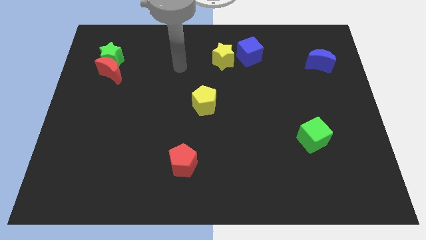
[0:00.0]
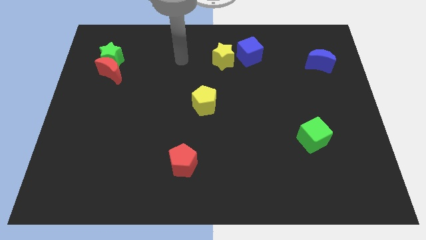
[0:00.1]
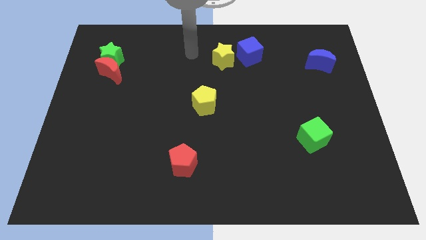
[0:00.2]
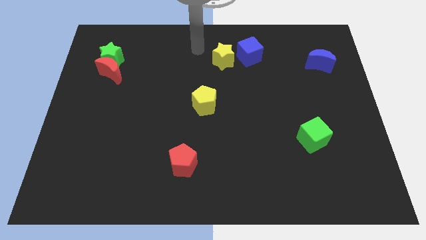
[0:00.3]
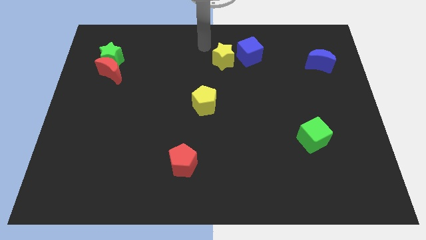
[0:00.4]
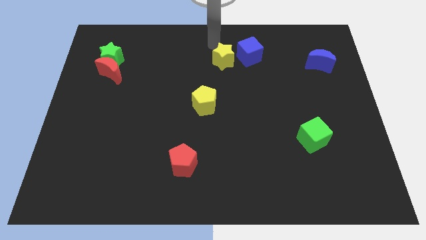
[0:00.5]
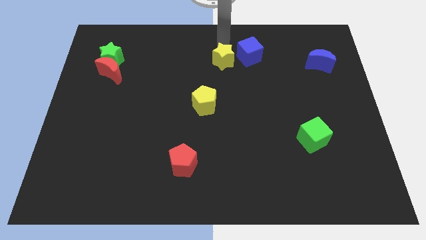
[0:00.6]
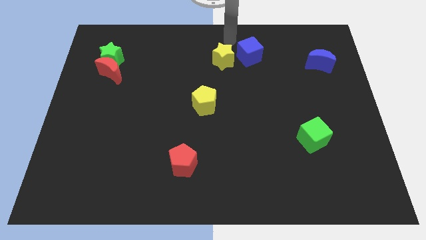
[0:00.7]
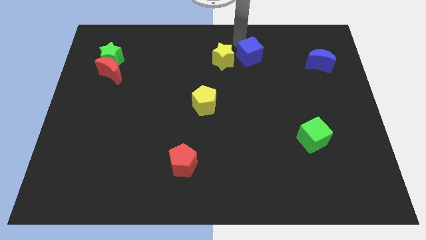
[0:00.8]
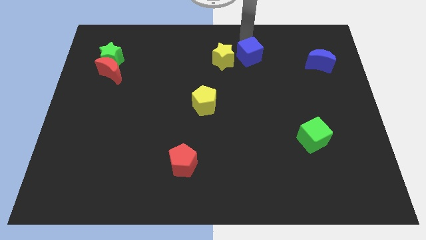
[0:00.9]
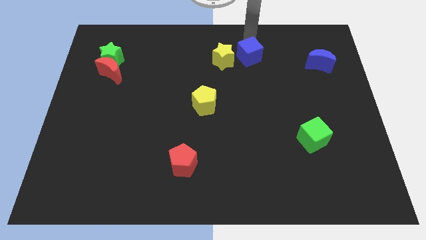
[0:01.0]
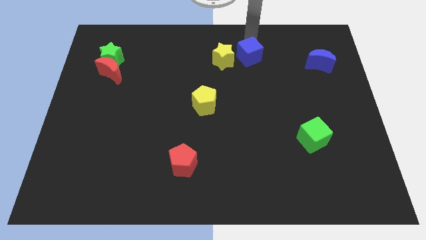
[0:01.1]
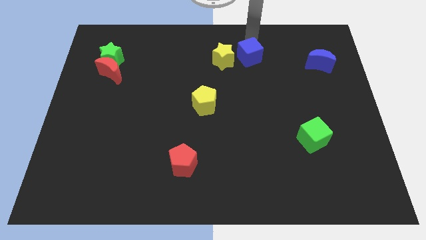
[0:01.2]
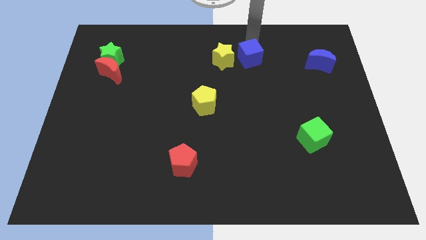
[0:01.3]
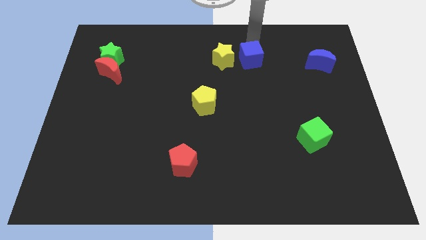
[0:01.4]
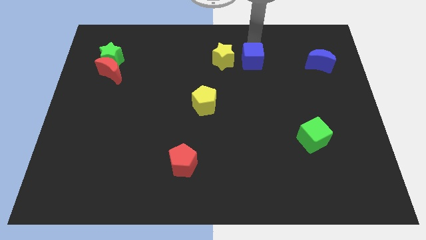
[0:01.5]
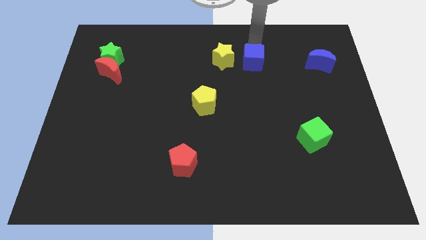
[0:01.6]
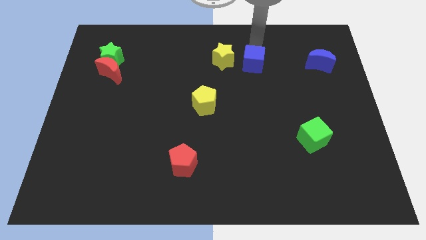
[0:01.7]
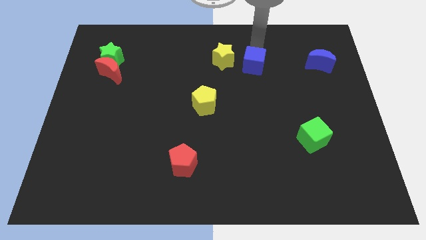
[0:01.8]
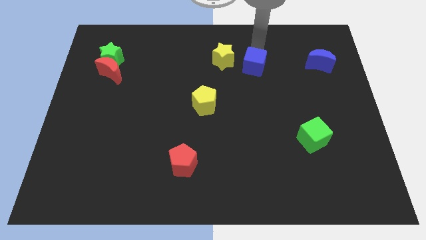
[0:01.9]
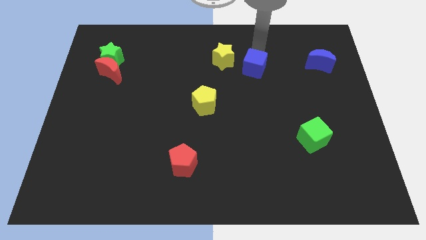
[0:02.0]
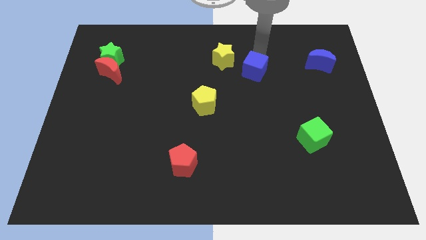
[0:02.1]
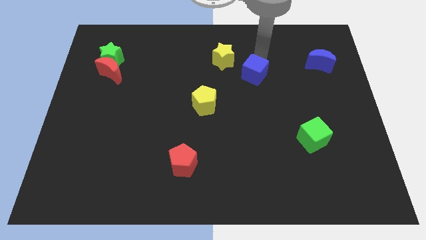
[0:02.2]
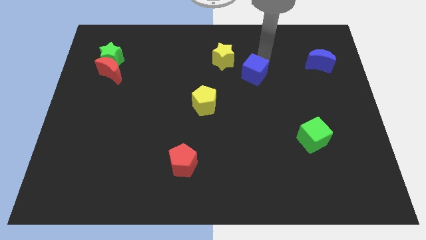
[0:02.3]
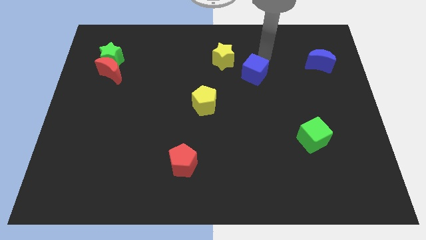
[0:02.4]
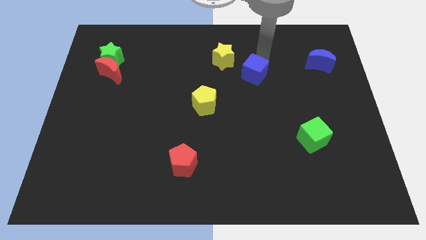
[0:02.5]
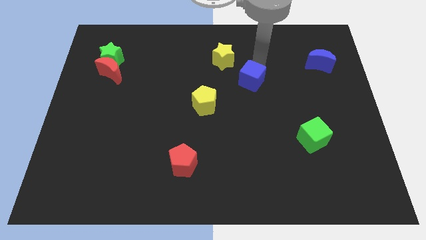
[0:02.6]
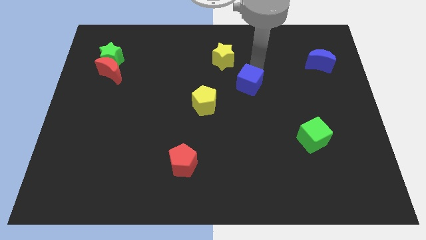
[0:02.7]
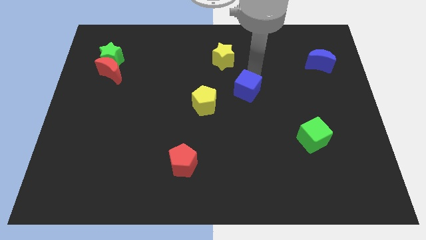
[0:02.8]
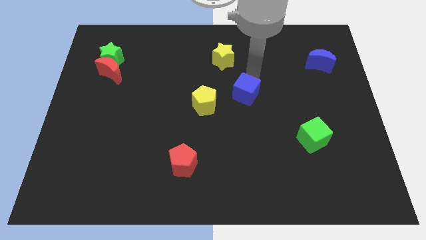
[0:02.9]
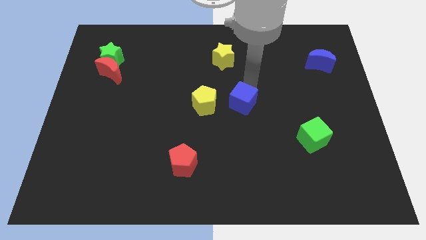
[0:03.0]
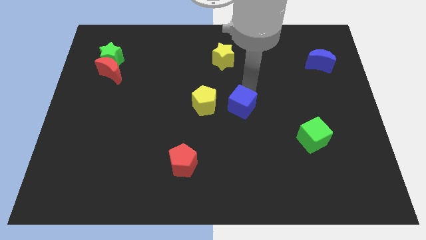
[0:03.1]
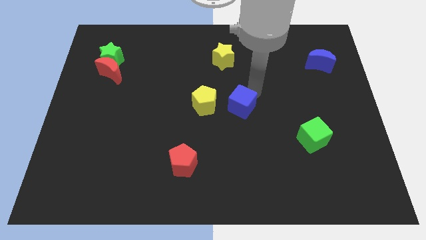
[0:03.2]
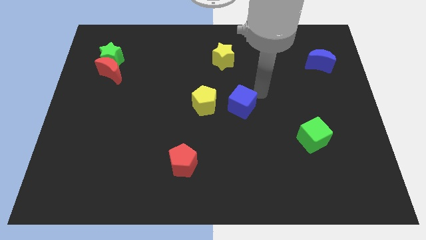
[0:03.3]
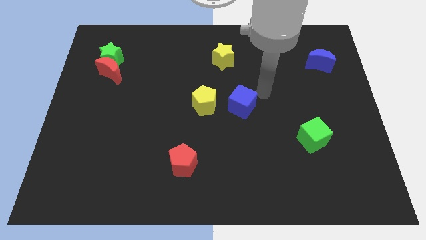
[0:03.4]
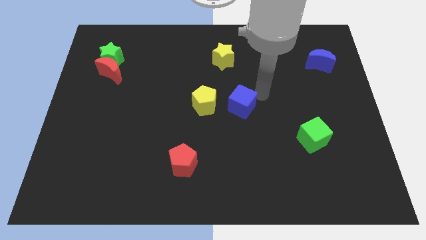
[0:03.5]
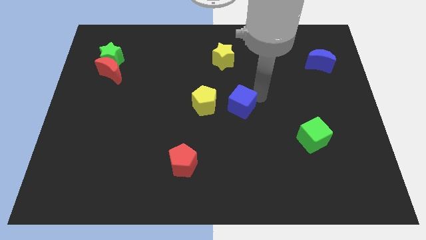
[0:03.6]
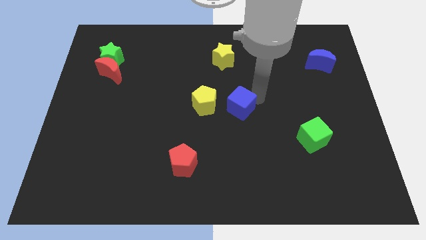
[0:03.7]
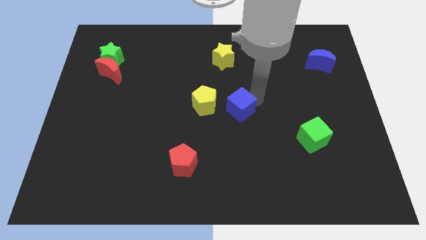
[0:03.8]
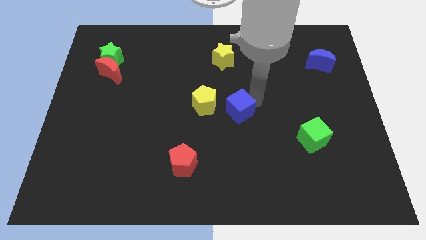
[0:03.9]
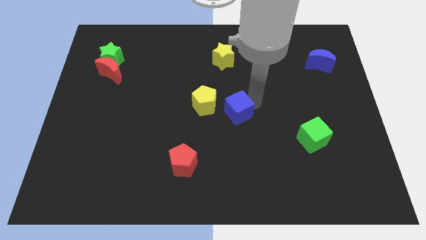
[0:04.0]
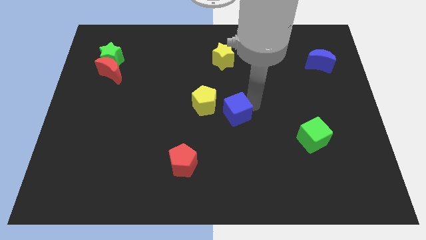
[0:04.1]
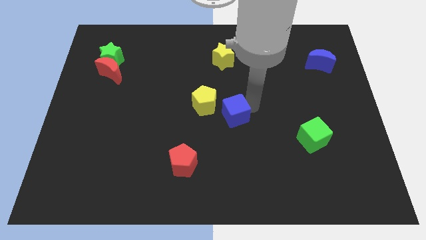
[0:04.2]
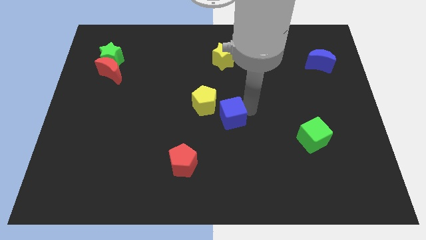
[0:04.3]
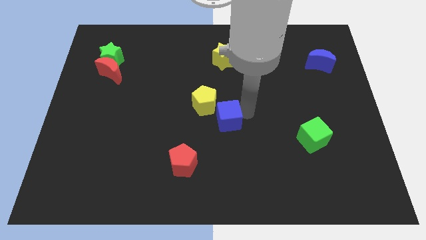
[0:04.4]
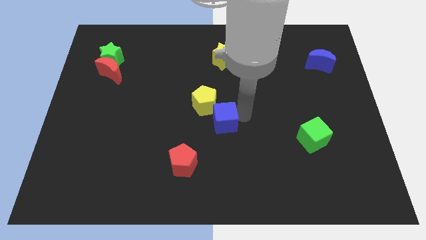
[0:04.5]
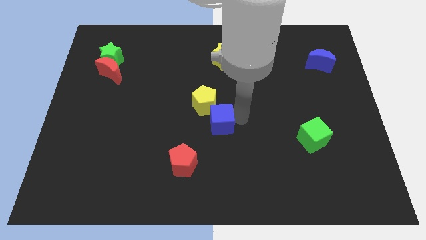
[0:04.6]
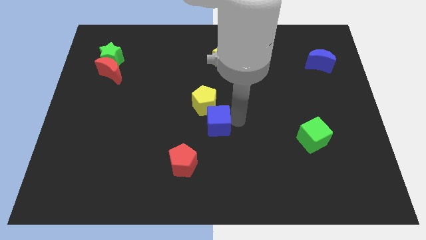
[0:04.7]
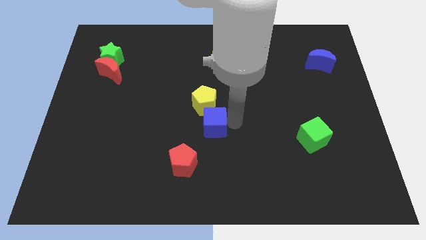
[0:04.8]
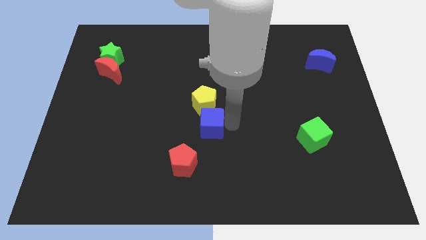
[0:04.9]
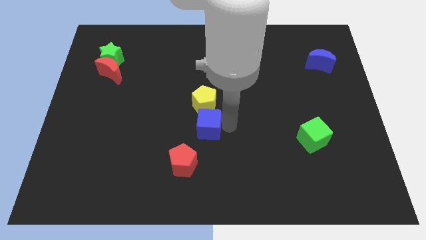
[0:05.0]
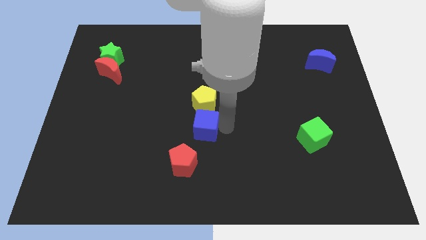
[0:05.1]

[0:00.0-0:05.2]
put the blue cube diagonally down and to the left of the yellow pentagon
